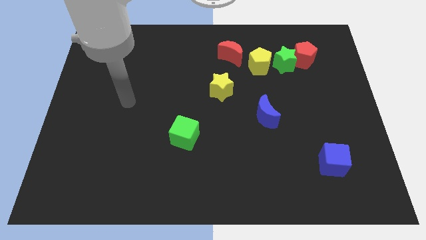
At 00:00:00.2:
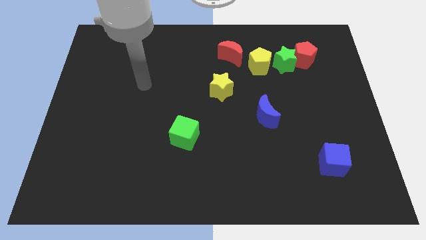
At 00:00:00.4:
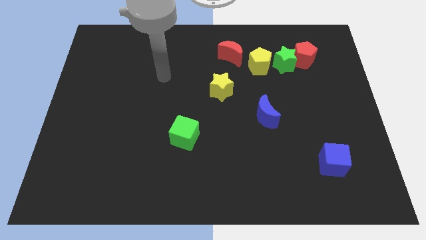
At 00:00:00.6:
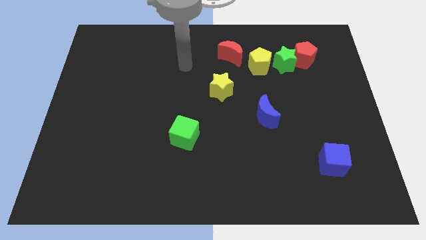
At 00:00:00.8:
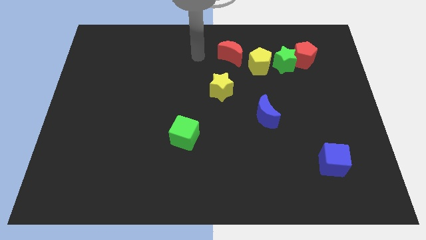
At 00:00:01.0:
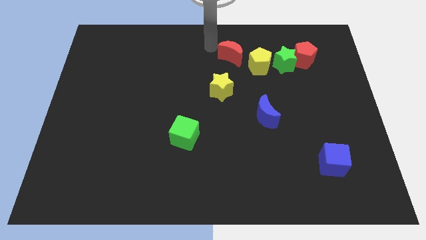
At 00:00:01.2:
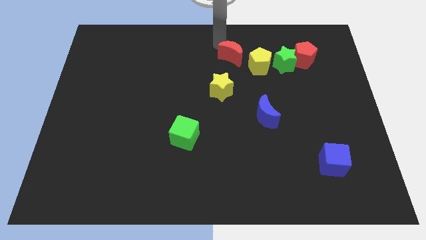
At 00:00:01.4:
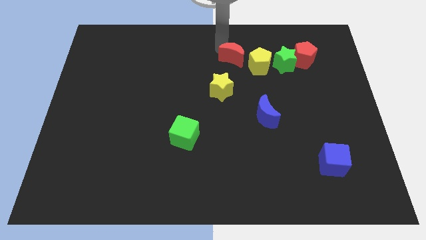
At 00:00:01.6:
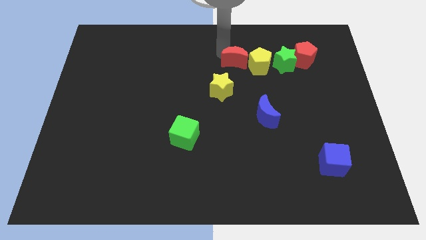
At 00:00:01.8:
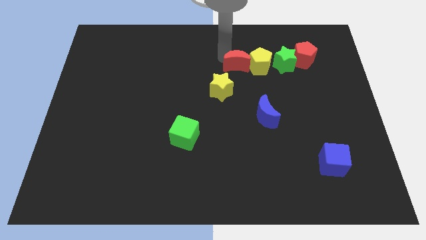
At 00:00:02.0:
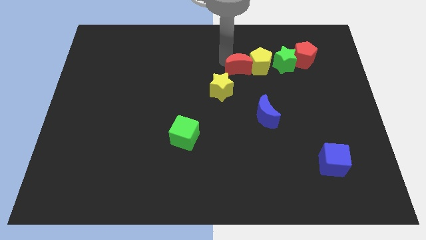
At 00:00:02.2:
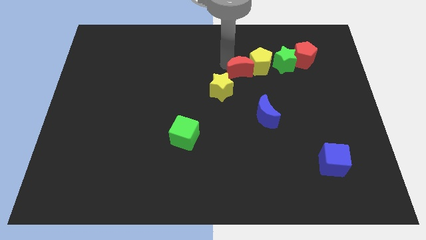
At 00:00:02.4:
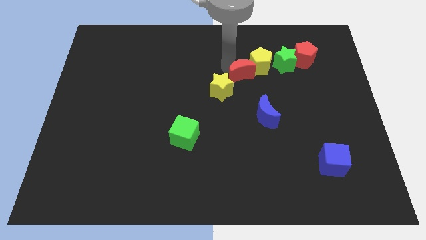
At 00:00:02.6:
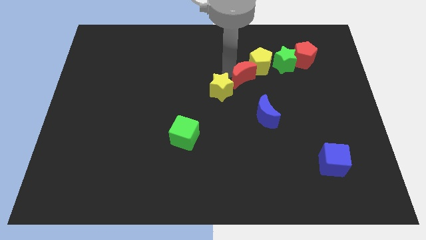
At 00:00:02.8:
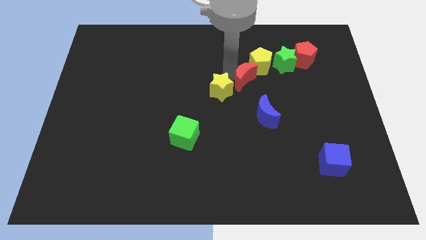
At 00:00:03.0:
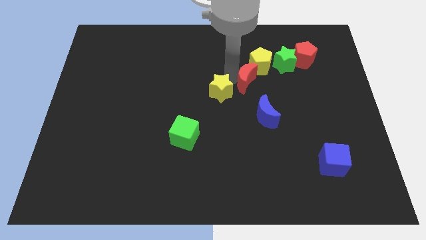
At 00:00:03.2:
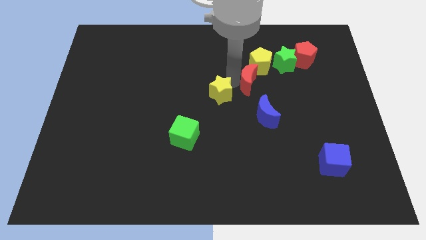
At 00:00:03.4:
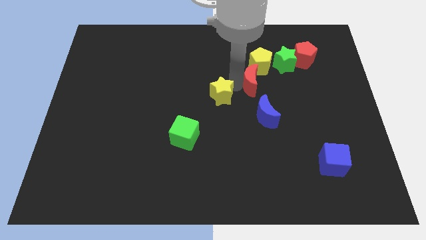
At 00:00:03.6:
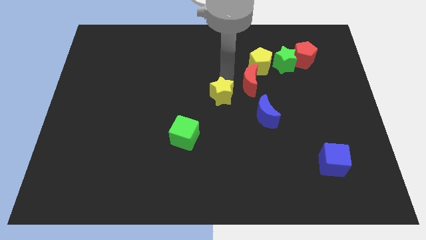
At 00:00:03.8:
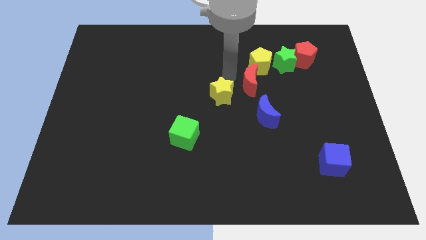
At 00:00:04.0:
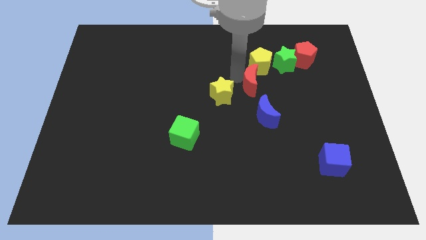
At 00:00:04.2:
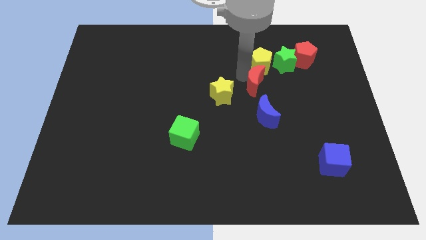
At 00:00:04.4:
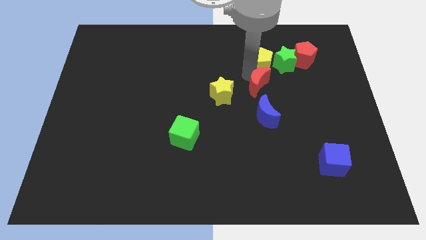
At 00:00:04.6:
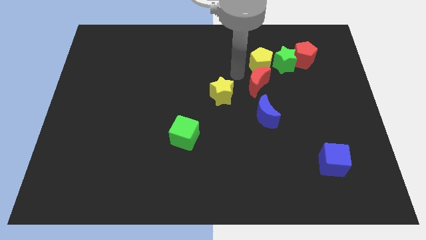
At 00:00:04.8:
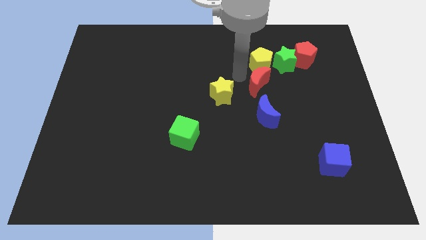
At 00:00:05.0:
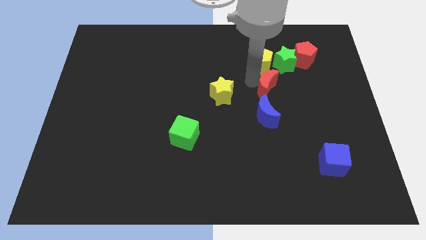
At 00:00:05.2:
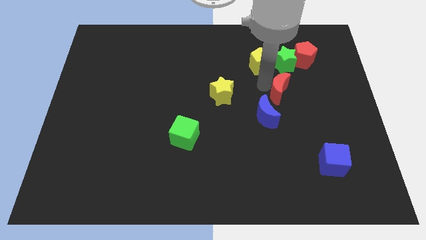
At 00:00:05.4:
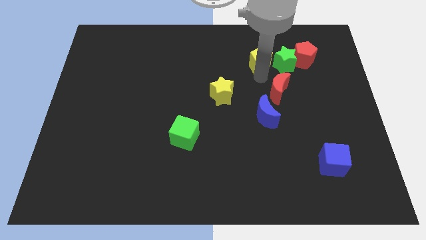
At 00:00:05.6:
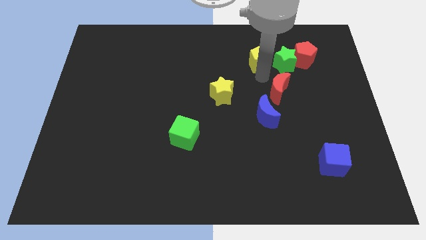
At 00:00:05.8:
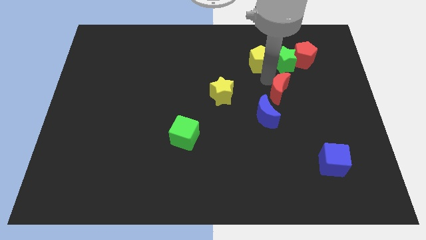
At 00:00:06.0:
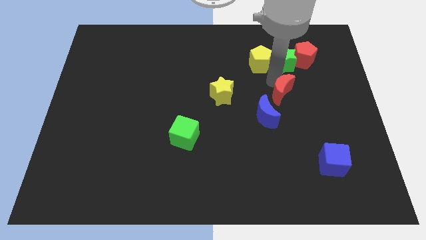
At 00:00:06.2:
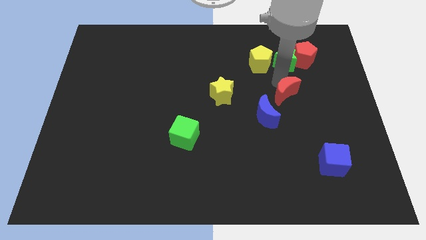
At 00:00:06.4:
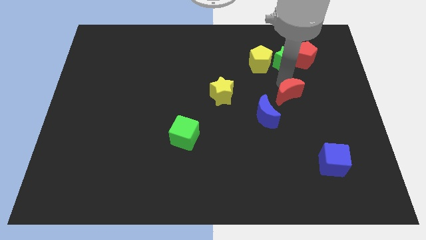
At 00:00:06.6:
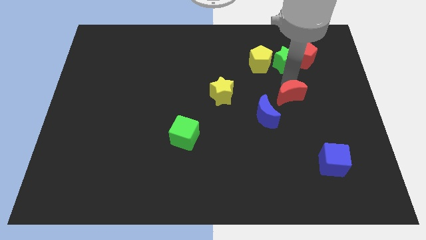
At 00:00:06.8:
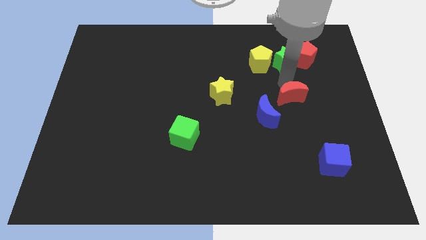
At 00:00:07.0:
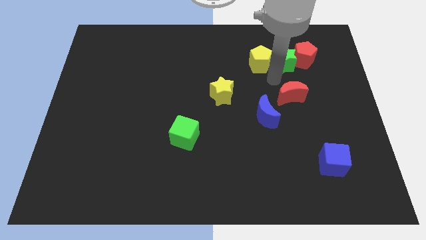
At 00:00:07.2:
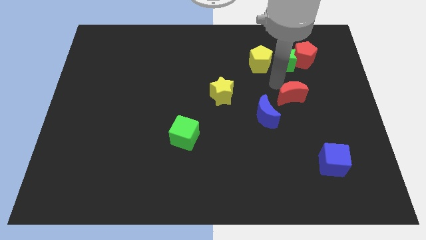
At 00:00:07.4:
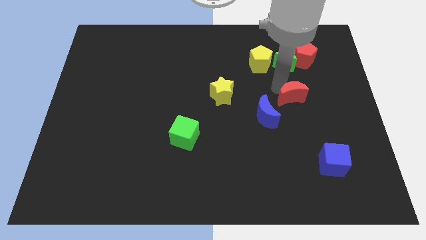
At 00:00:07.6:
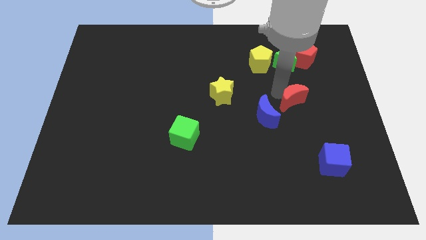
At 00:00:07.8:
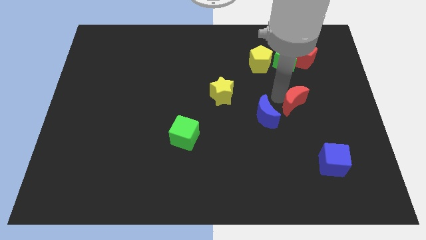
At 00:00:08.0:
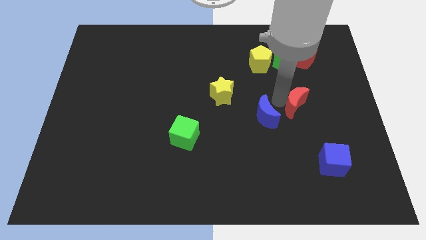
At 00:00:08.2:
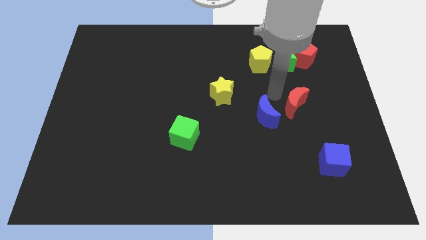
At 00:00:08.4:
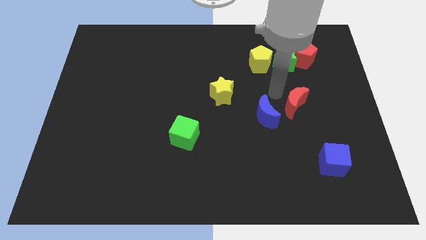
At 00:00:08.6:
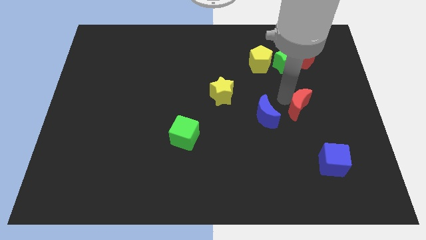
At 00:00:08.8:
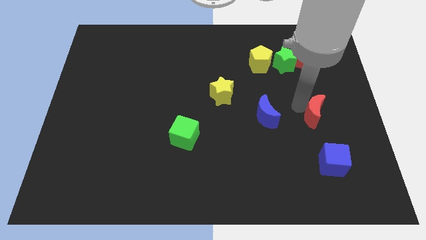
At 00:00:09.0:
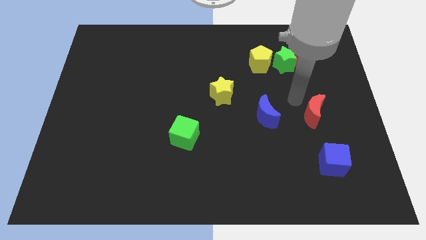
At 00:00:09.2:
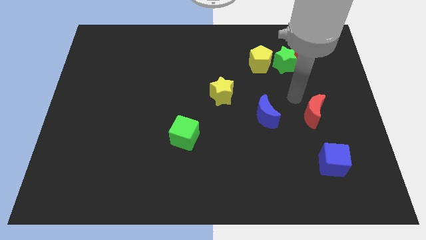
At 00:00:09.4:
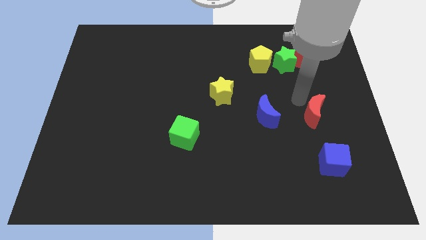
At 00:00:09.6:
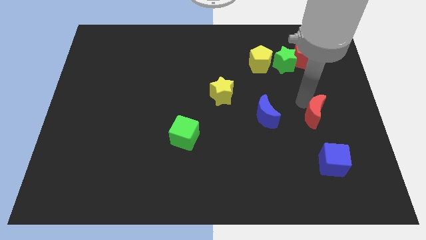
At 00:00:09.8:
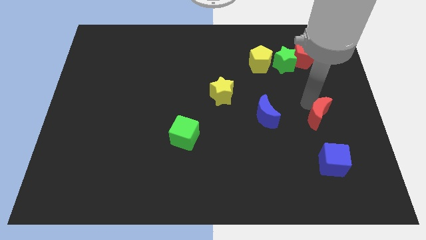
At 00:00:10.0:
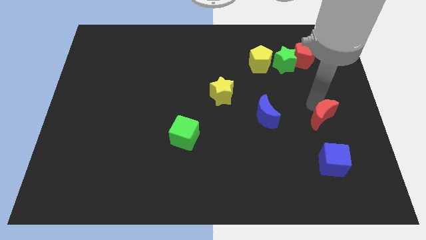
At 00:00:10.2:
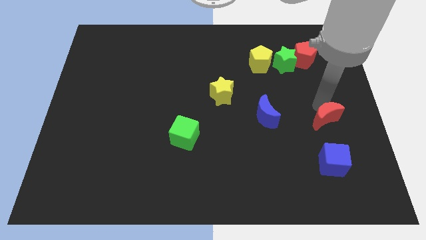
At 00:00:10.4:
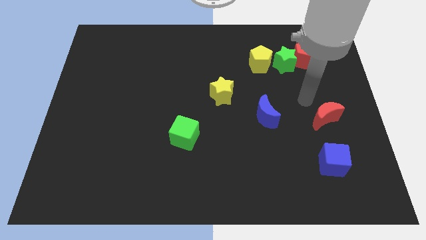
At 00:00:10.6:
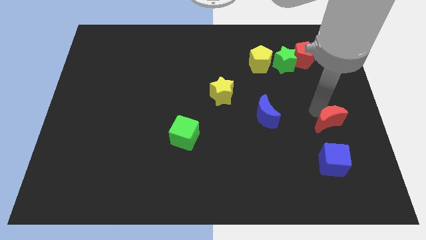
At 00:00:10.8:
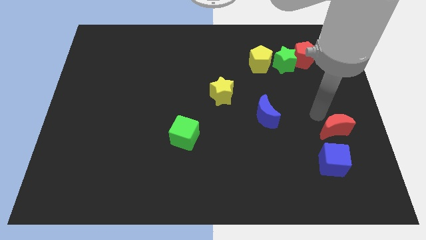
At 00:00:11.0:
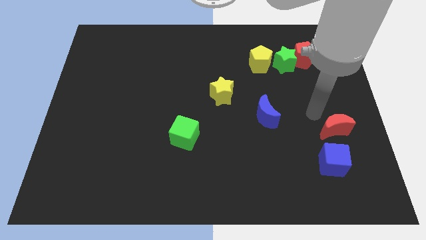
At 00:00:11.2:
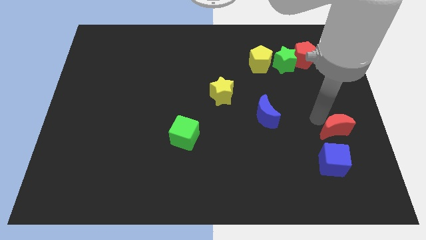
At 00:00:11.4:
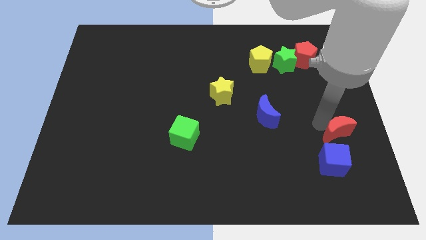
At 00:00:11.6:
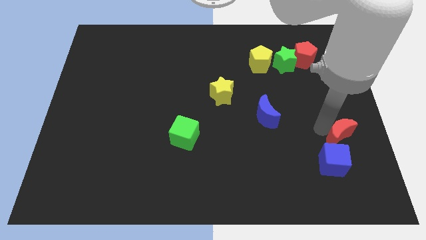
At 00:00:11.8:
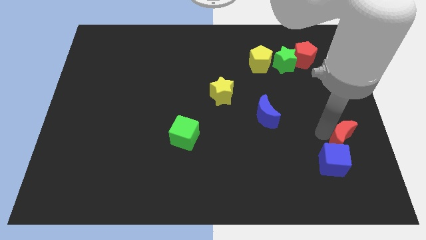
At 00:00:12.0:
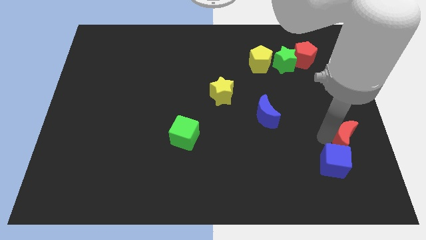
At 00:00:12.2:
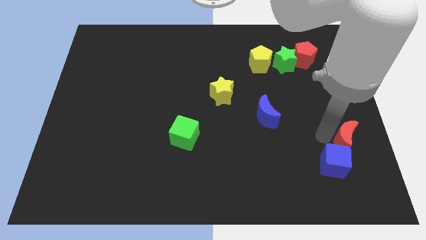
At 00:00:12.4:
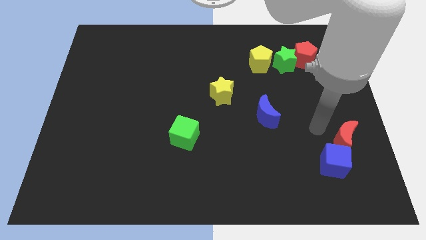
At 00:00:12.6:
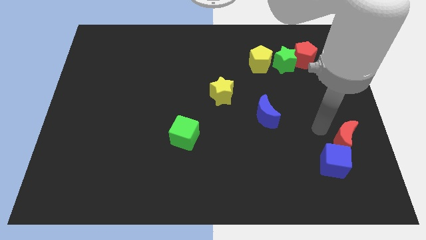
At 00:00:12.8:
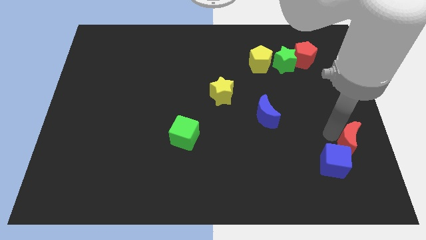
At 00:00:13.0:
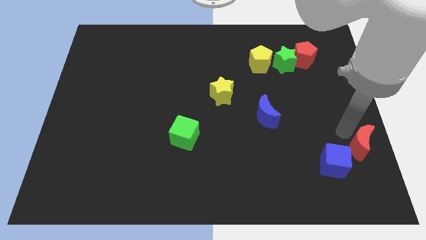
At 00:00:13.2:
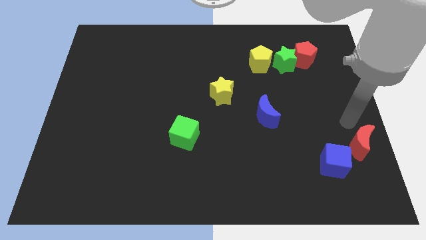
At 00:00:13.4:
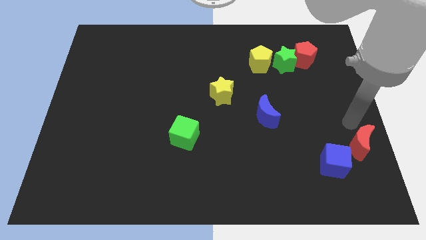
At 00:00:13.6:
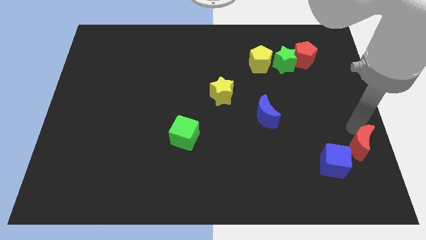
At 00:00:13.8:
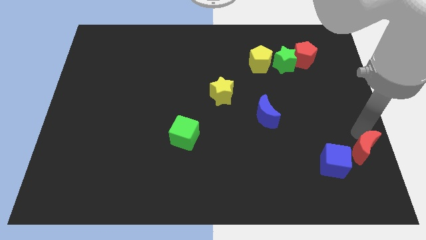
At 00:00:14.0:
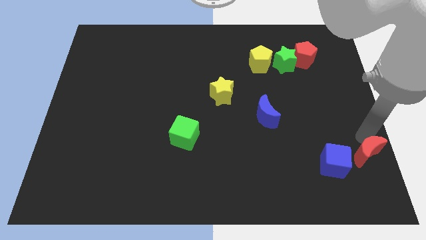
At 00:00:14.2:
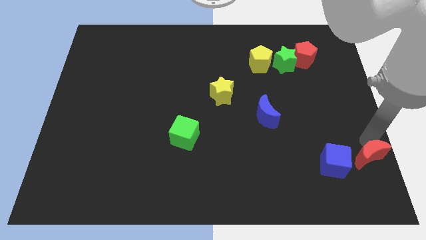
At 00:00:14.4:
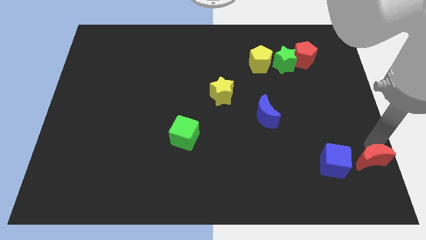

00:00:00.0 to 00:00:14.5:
put the red moon to the bottom right of the board

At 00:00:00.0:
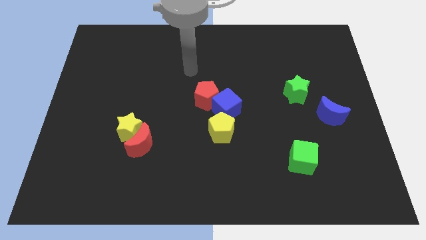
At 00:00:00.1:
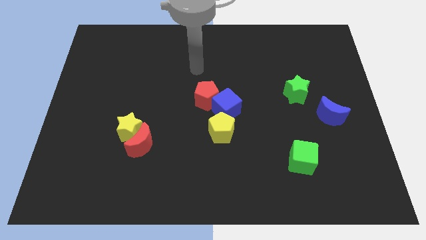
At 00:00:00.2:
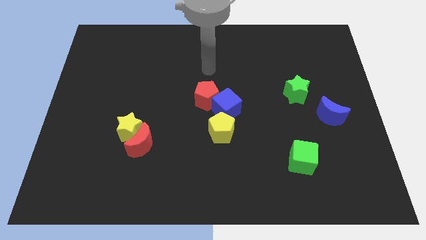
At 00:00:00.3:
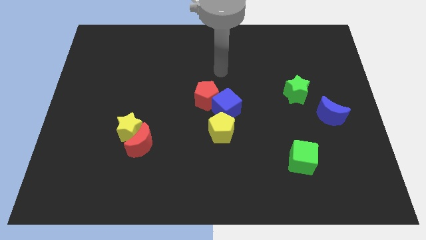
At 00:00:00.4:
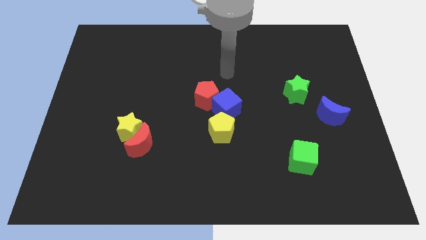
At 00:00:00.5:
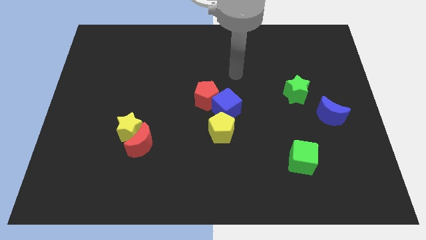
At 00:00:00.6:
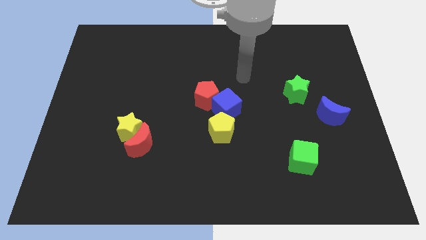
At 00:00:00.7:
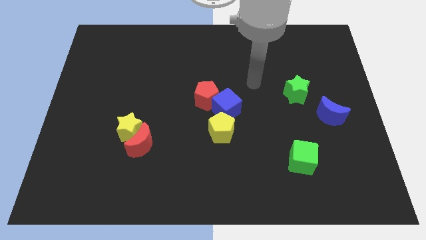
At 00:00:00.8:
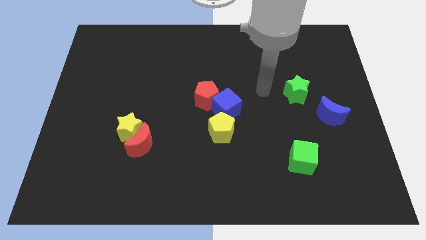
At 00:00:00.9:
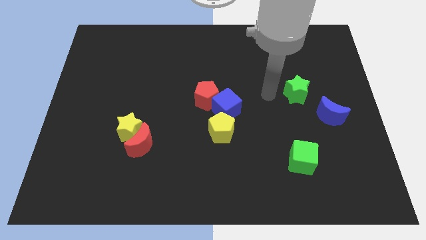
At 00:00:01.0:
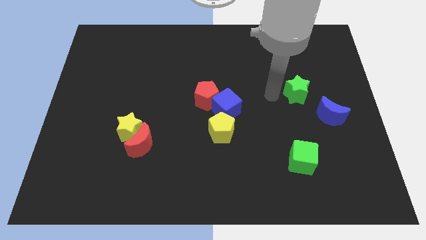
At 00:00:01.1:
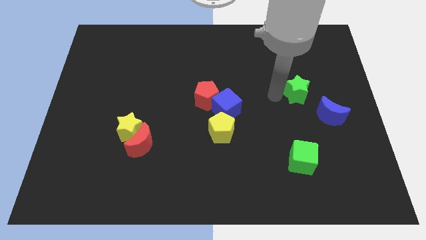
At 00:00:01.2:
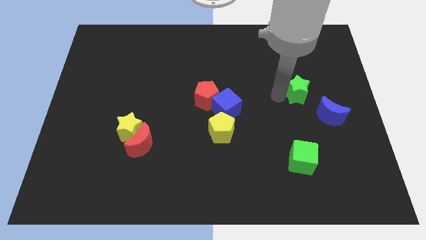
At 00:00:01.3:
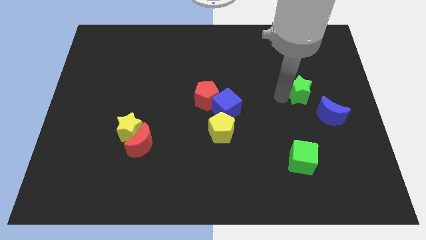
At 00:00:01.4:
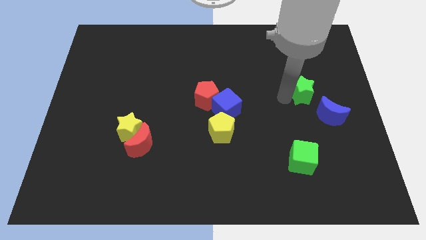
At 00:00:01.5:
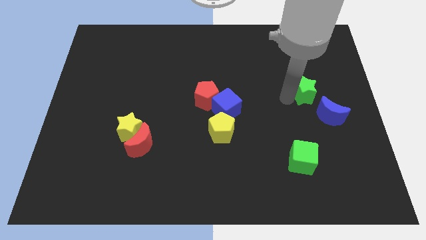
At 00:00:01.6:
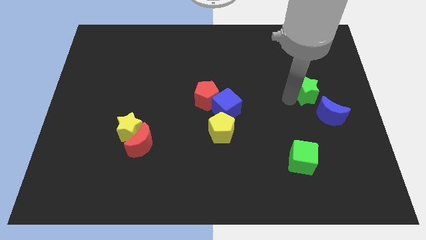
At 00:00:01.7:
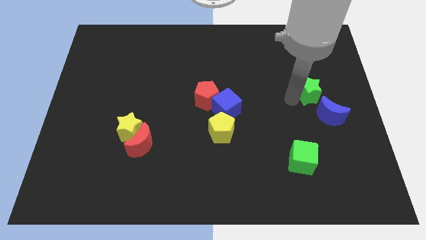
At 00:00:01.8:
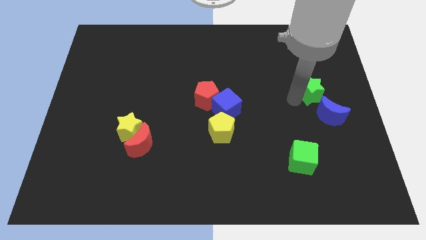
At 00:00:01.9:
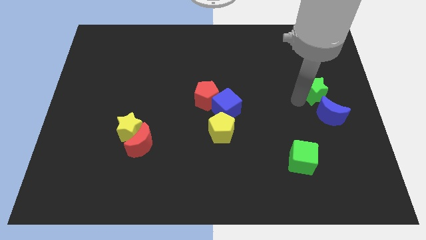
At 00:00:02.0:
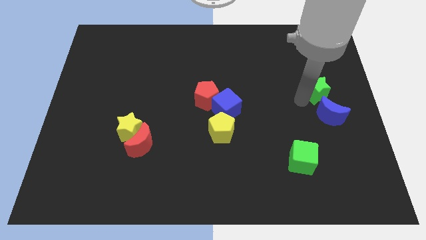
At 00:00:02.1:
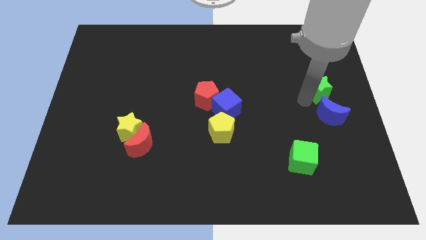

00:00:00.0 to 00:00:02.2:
push the green star to the right side
